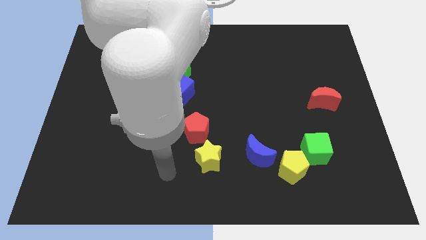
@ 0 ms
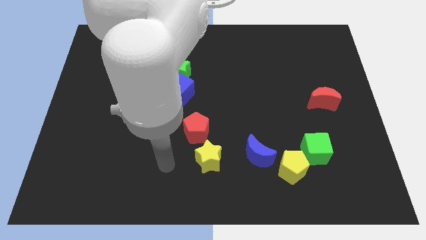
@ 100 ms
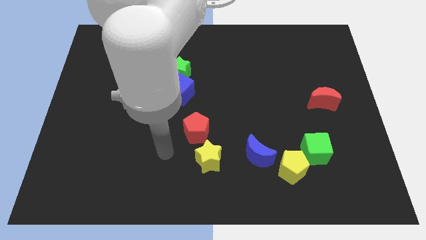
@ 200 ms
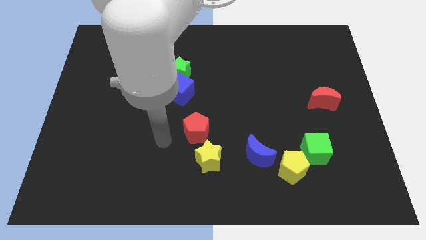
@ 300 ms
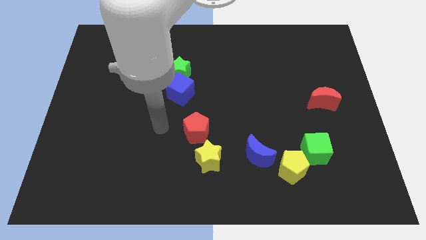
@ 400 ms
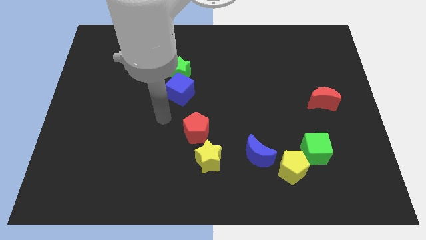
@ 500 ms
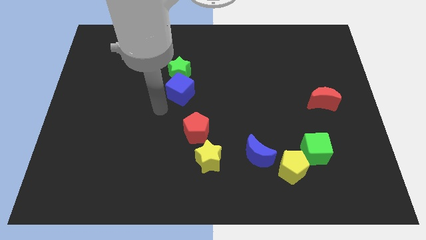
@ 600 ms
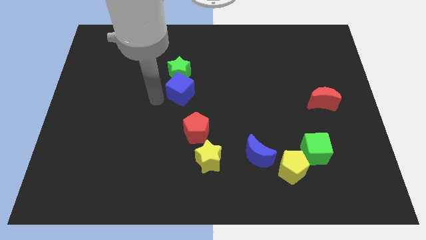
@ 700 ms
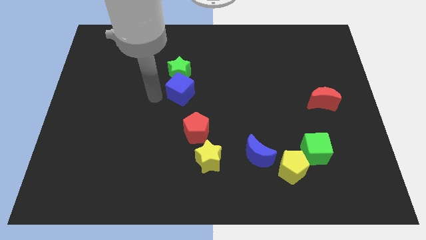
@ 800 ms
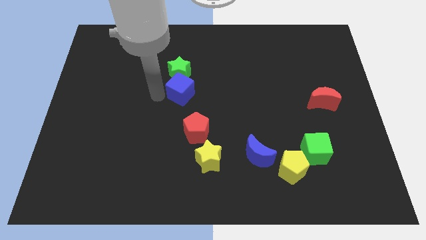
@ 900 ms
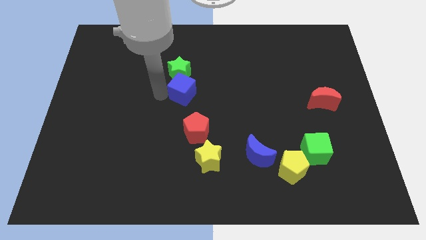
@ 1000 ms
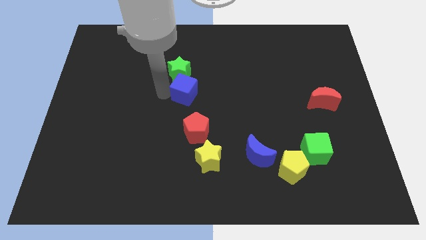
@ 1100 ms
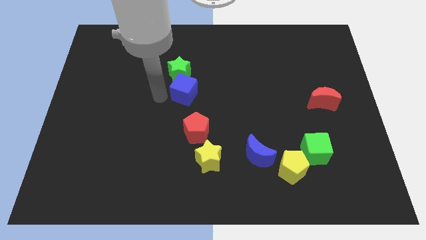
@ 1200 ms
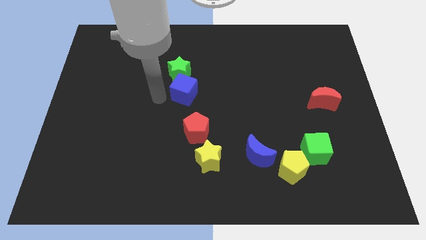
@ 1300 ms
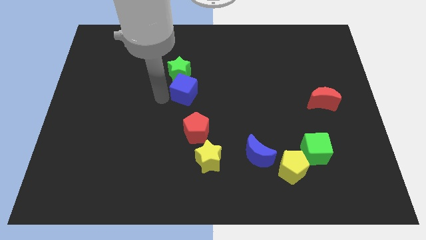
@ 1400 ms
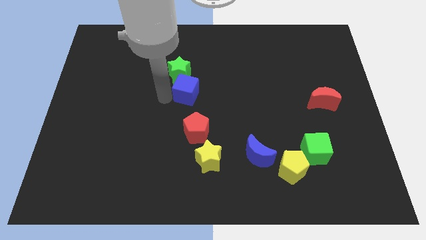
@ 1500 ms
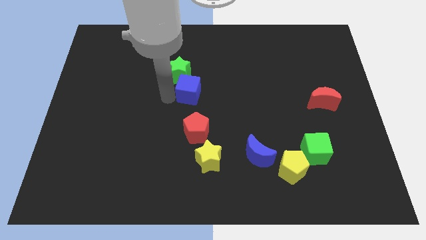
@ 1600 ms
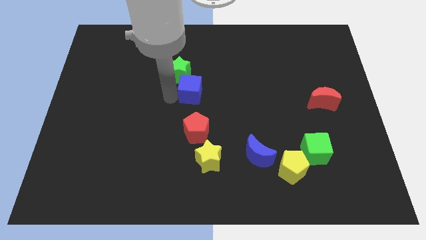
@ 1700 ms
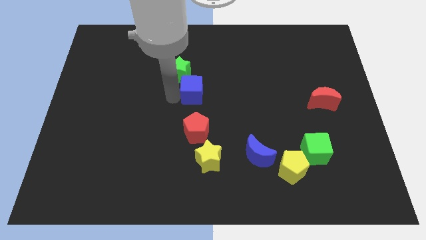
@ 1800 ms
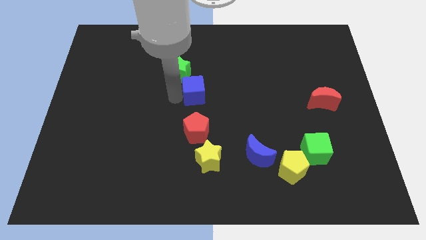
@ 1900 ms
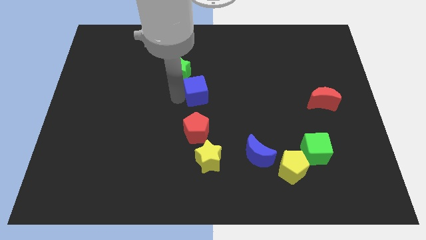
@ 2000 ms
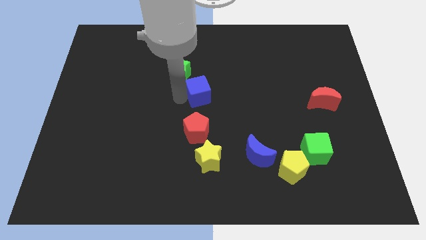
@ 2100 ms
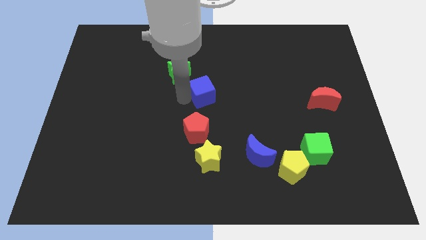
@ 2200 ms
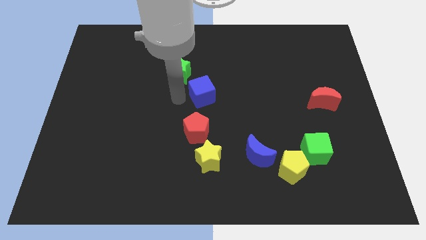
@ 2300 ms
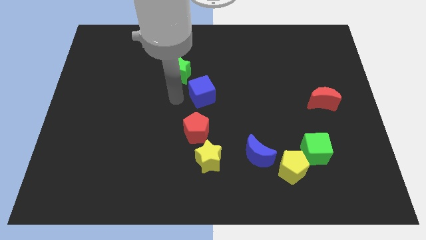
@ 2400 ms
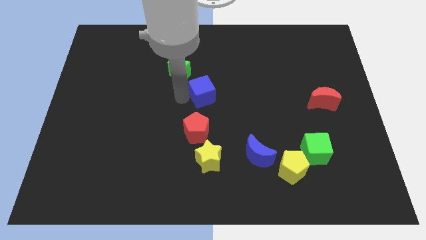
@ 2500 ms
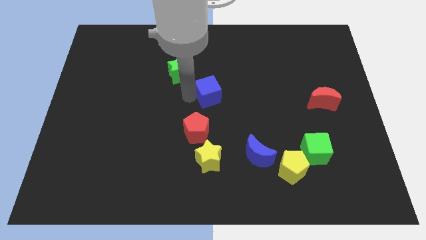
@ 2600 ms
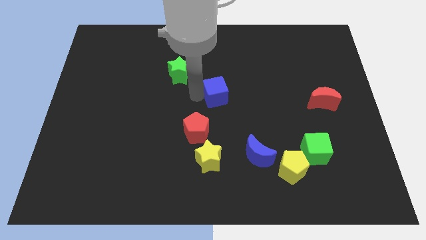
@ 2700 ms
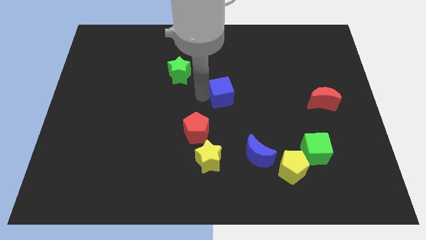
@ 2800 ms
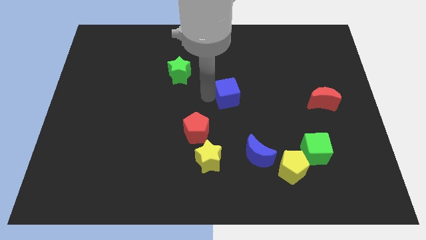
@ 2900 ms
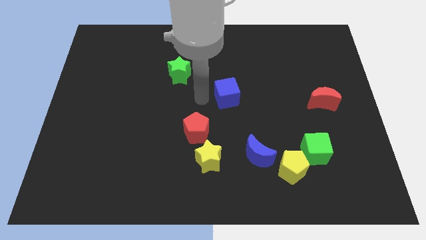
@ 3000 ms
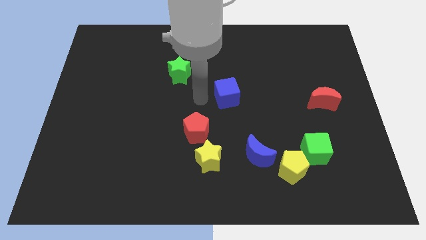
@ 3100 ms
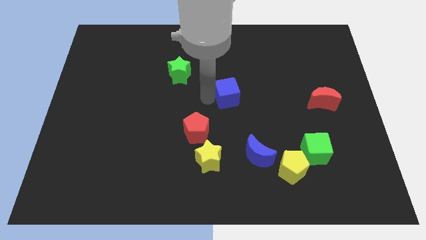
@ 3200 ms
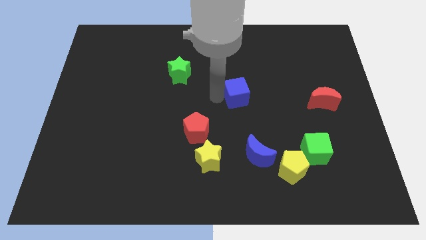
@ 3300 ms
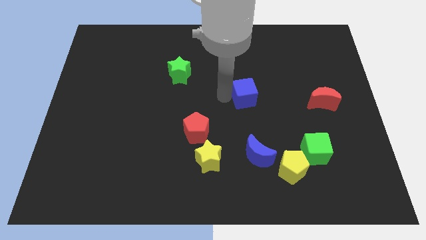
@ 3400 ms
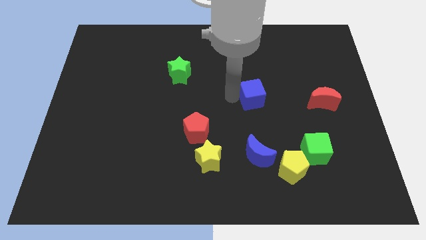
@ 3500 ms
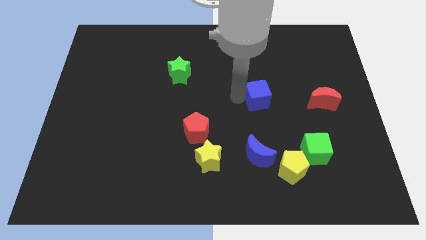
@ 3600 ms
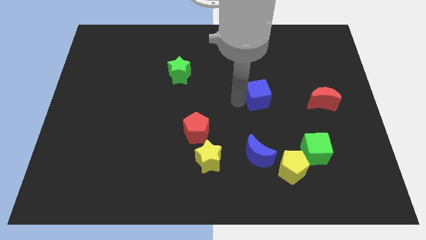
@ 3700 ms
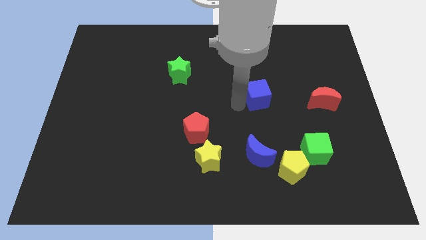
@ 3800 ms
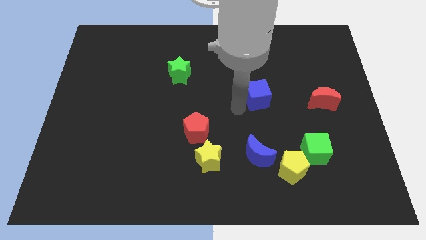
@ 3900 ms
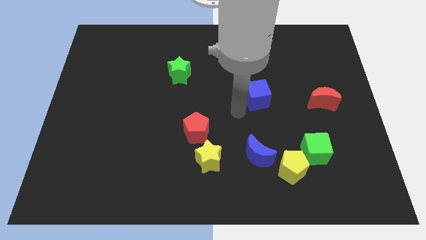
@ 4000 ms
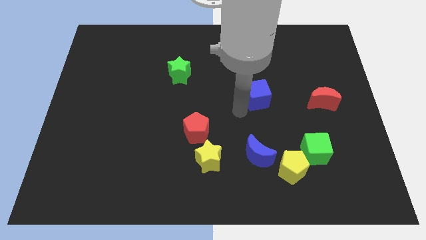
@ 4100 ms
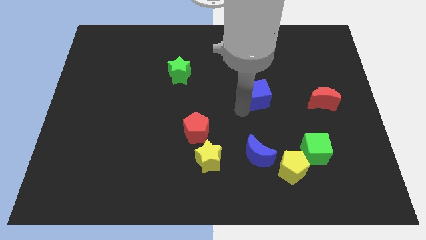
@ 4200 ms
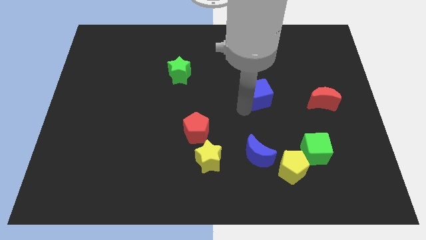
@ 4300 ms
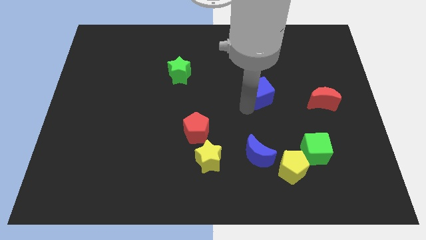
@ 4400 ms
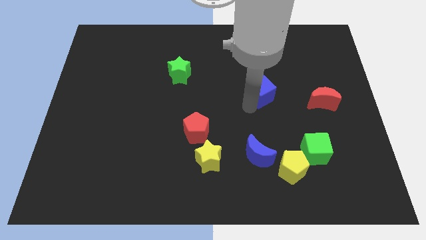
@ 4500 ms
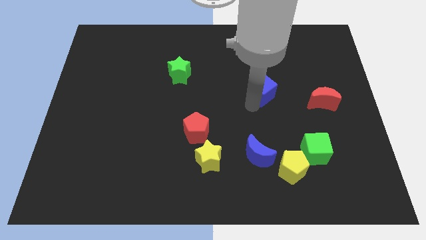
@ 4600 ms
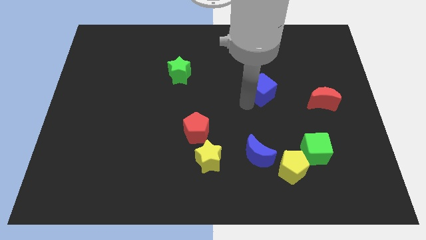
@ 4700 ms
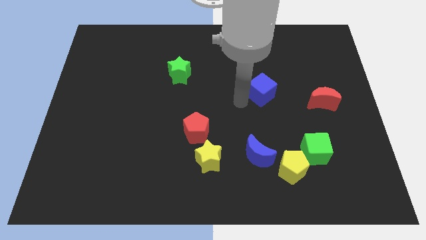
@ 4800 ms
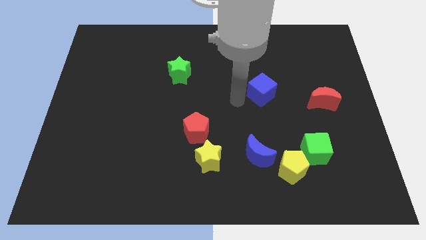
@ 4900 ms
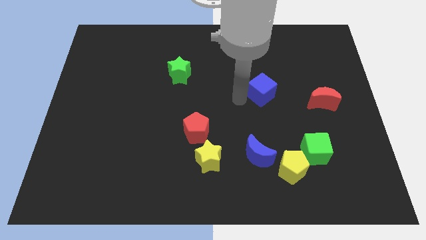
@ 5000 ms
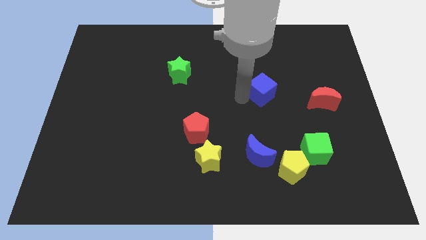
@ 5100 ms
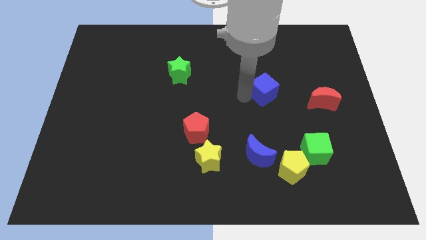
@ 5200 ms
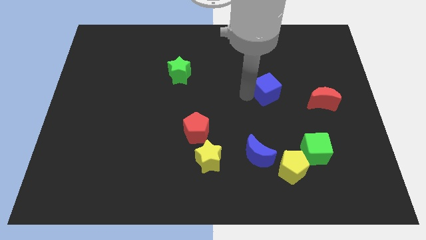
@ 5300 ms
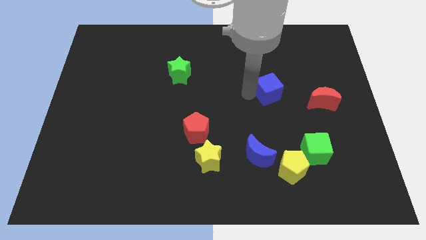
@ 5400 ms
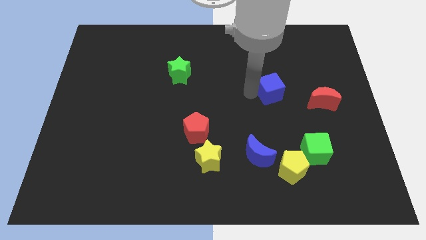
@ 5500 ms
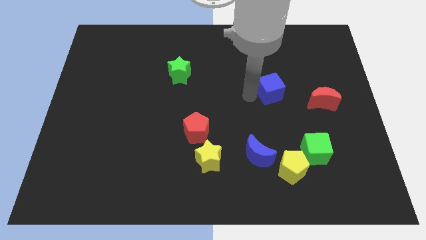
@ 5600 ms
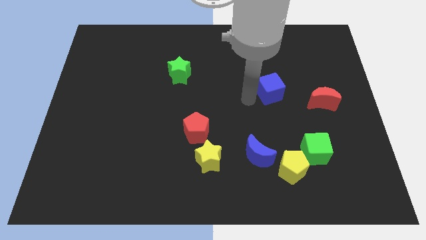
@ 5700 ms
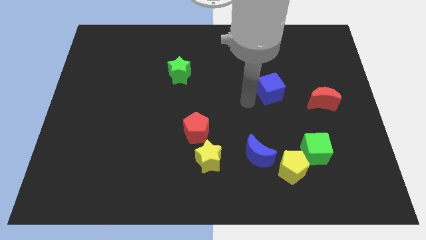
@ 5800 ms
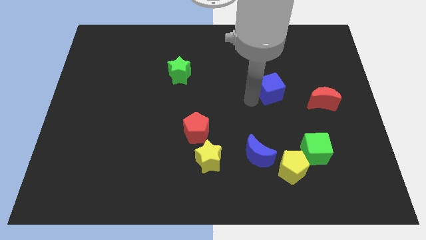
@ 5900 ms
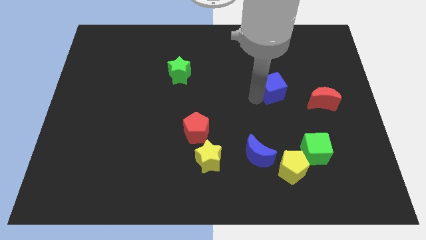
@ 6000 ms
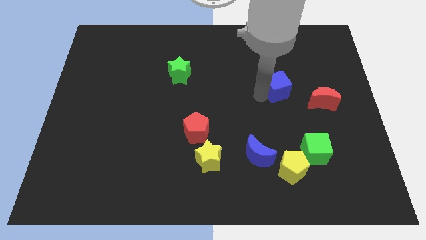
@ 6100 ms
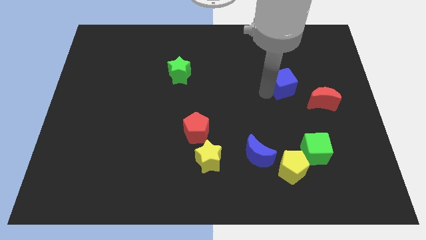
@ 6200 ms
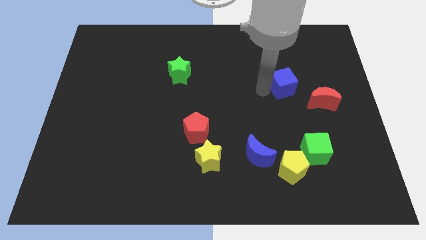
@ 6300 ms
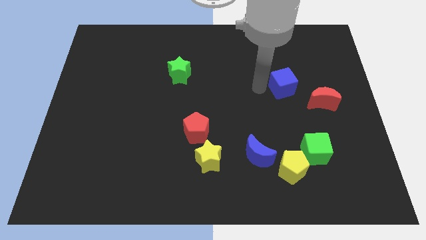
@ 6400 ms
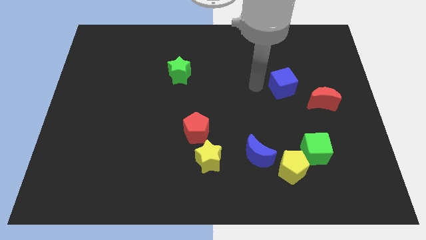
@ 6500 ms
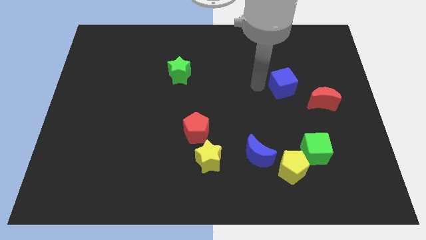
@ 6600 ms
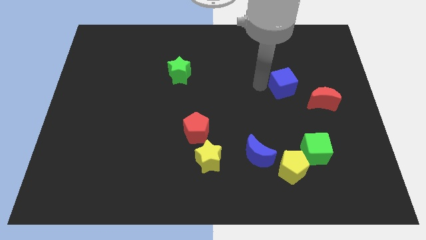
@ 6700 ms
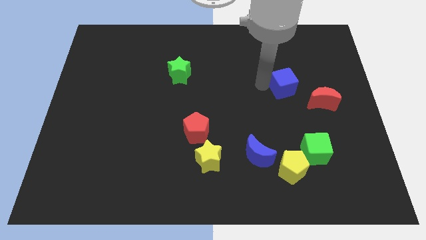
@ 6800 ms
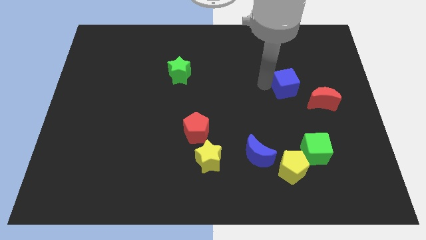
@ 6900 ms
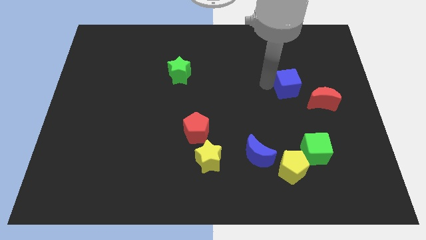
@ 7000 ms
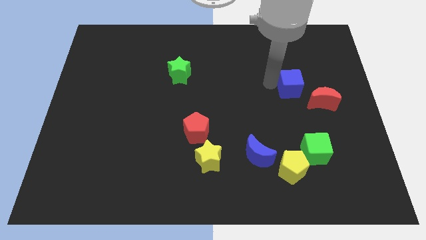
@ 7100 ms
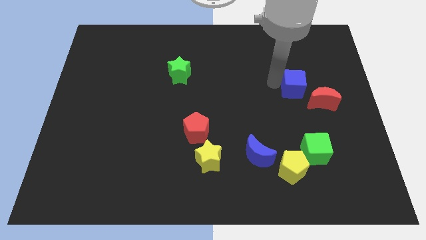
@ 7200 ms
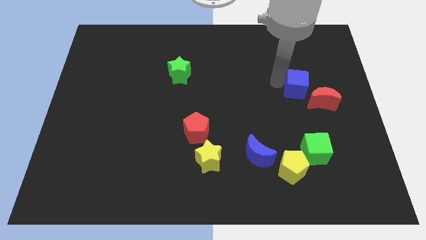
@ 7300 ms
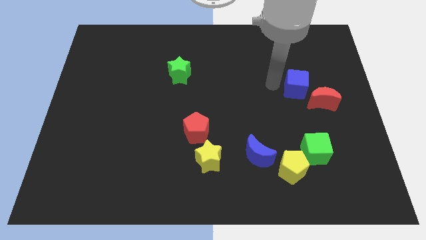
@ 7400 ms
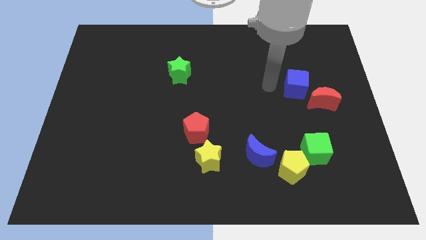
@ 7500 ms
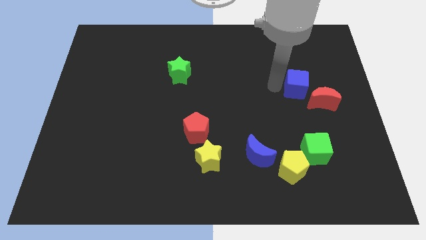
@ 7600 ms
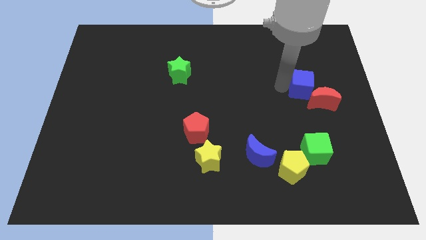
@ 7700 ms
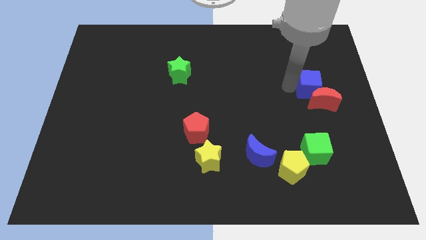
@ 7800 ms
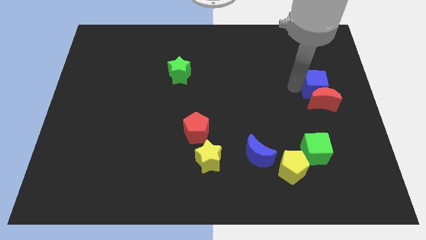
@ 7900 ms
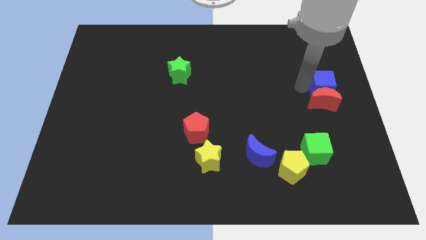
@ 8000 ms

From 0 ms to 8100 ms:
push the blue cube to the right side
